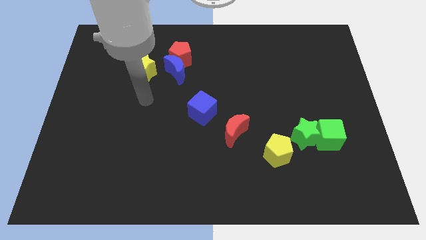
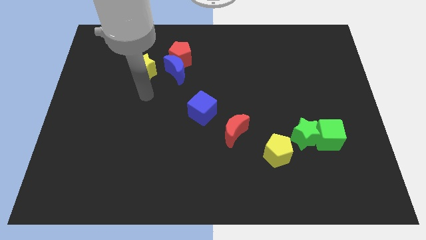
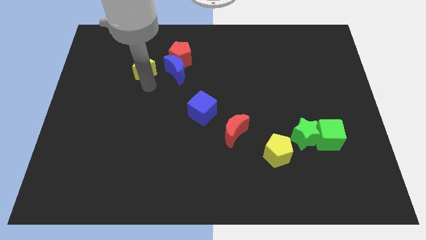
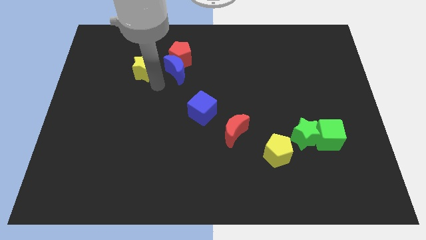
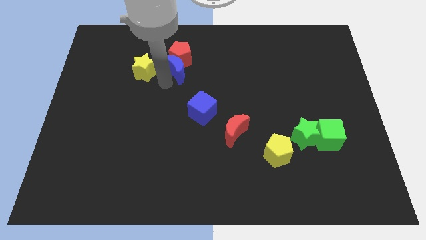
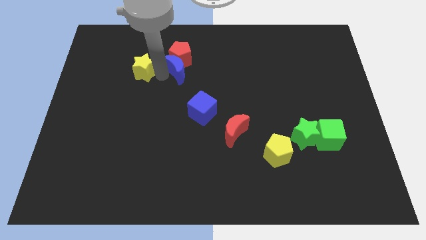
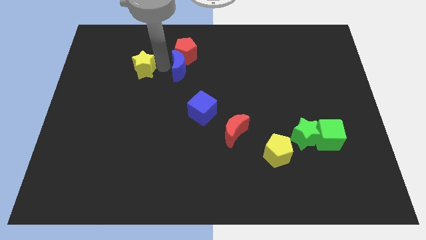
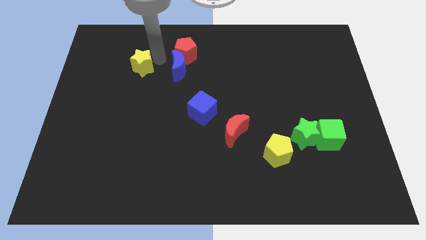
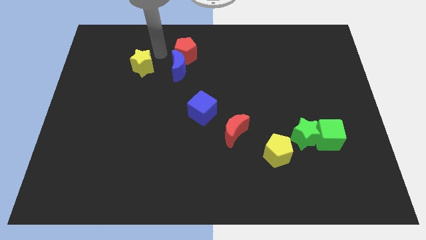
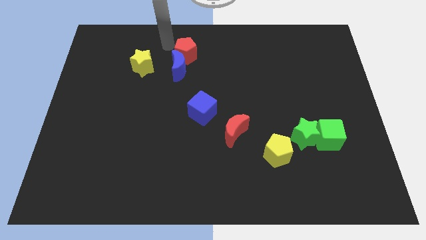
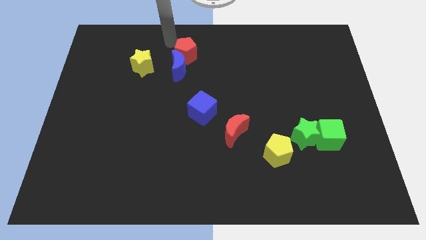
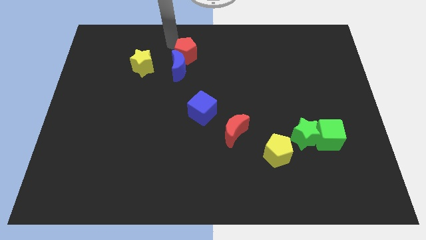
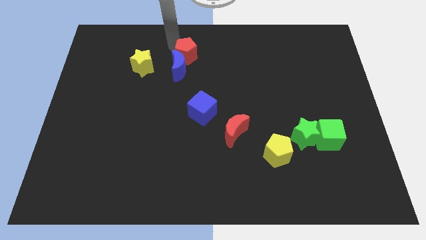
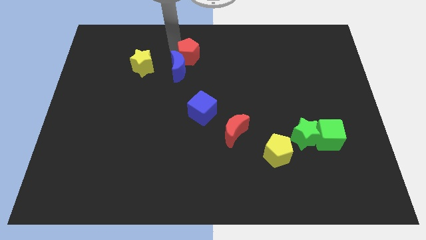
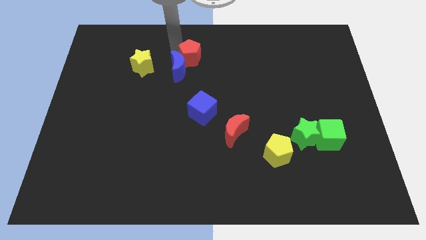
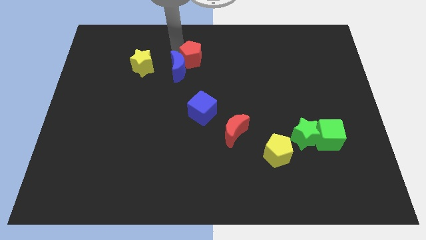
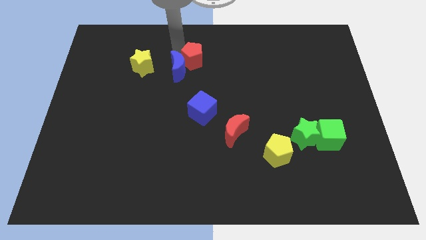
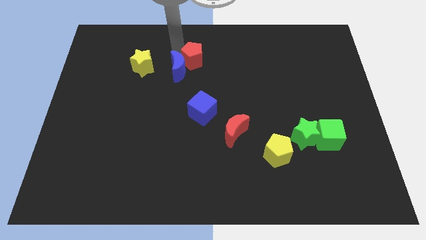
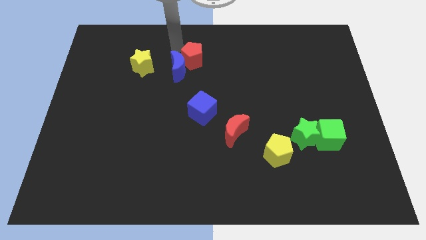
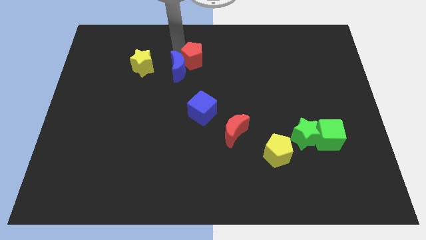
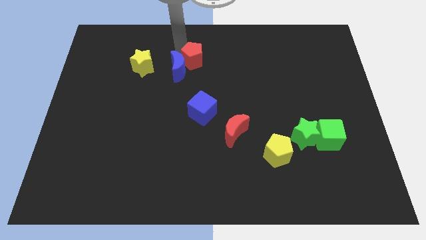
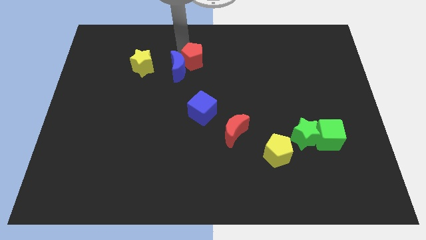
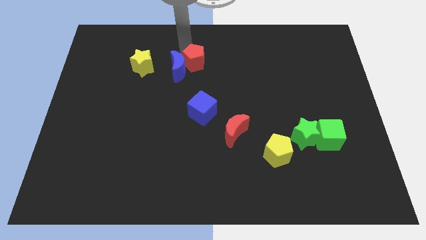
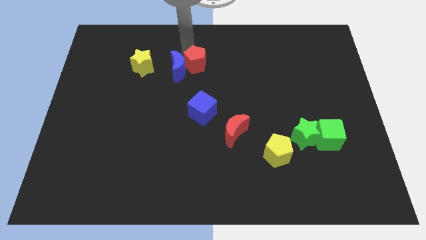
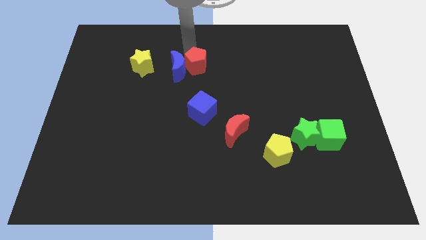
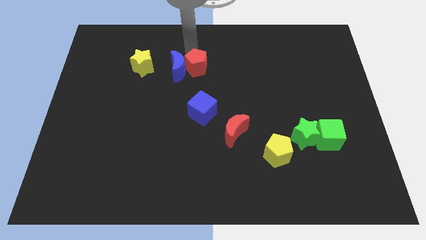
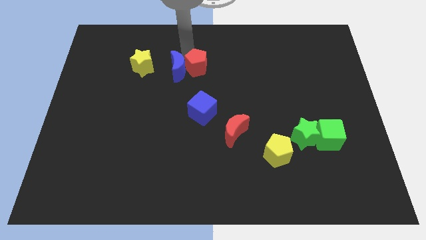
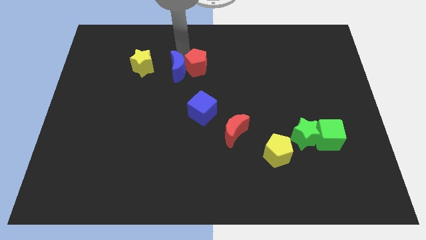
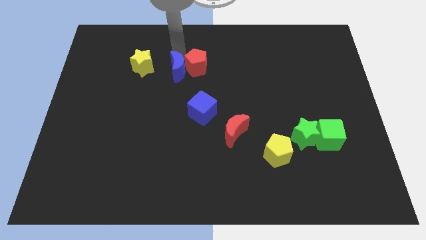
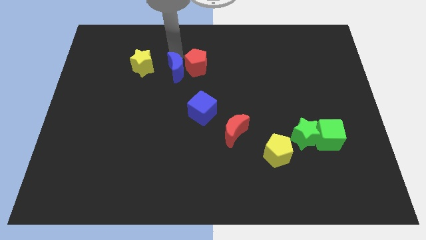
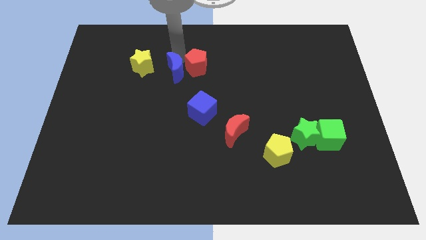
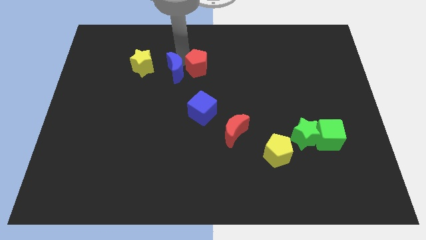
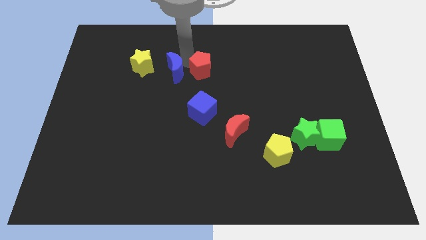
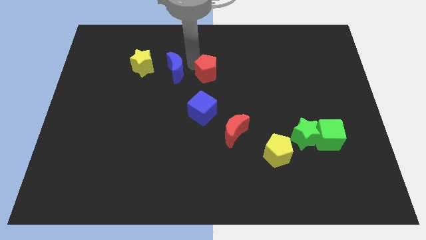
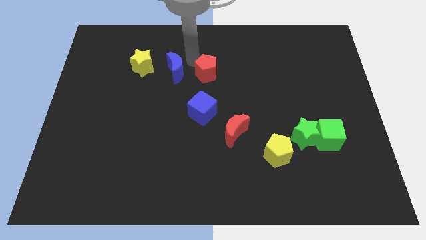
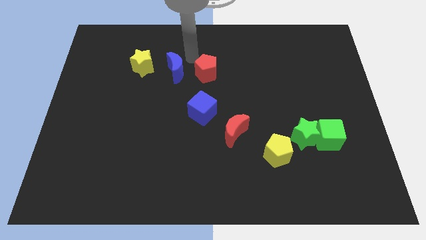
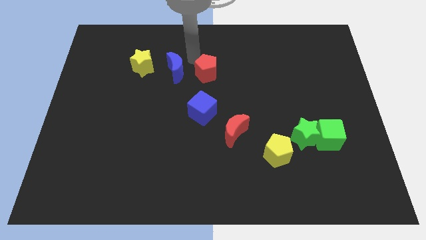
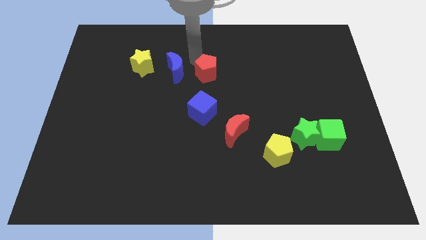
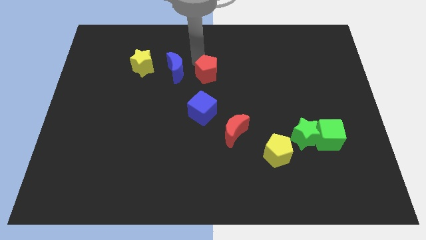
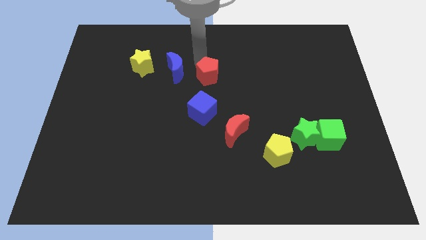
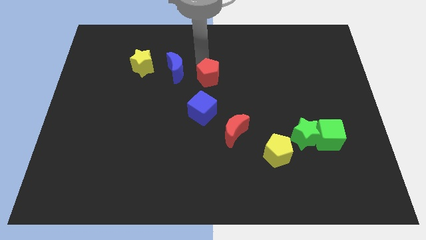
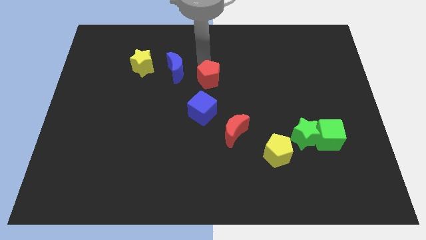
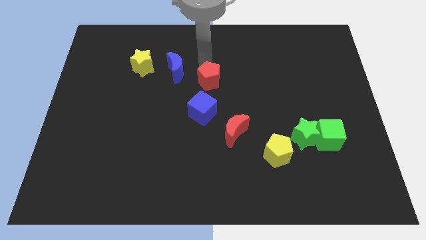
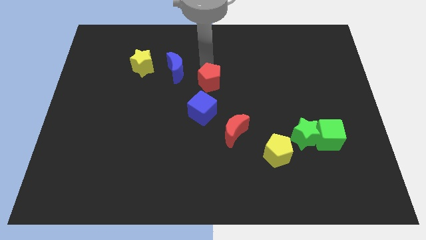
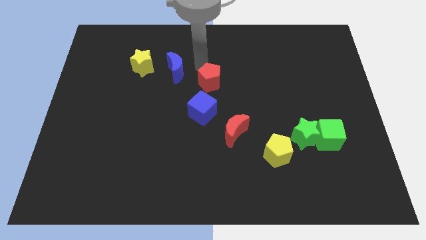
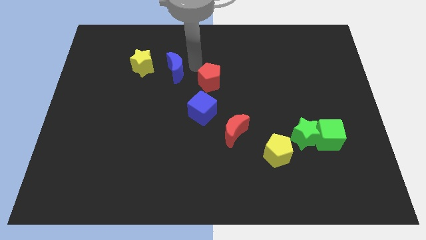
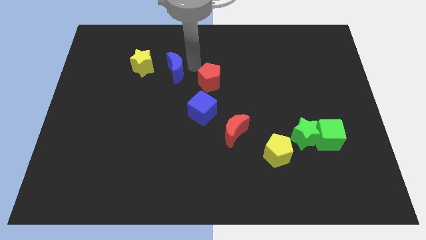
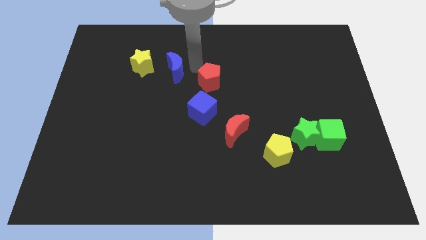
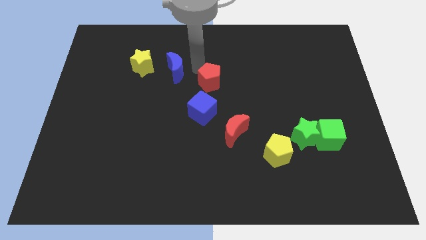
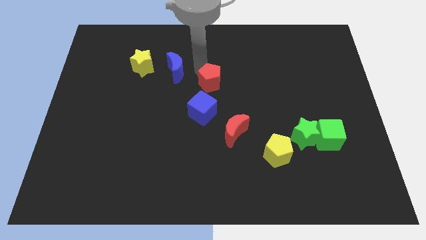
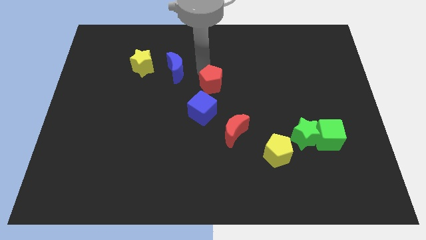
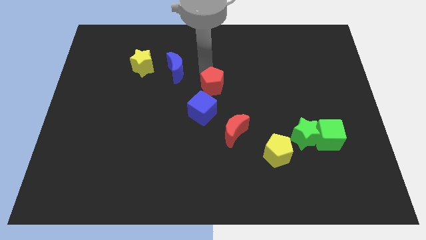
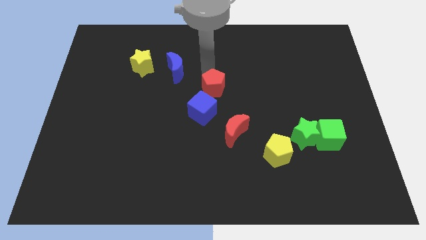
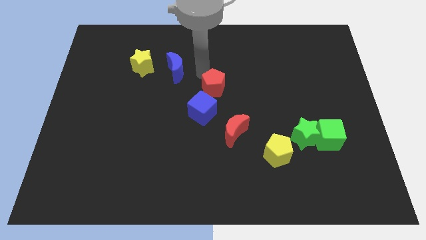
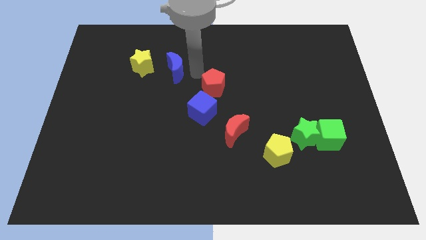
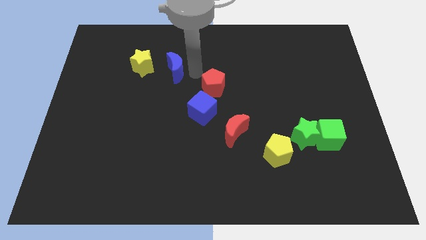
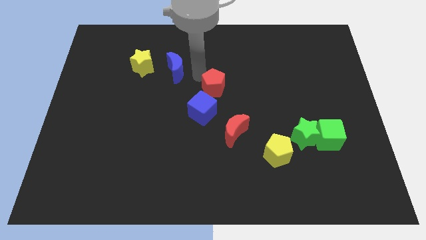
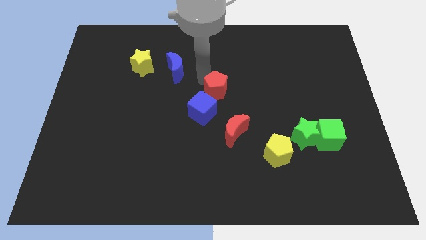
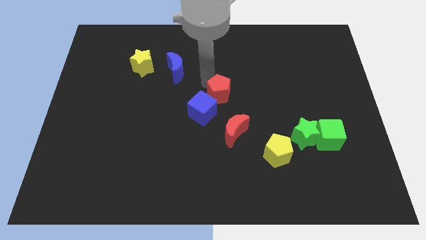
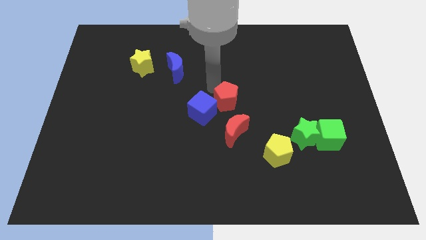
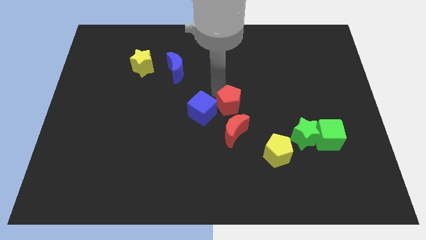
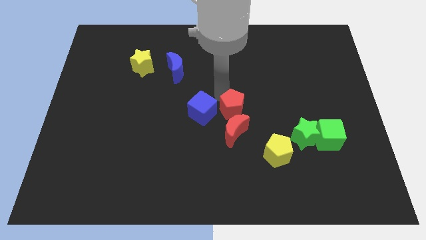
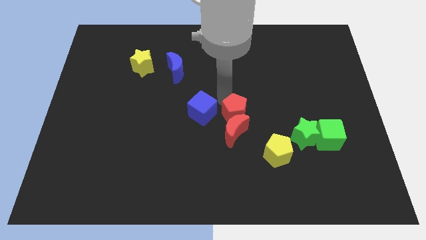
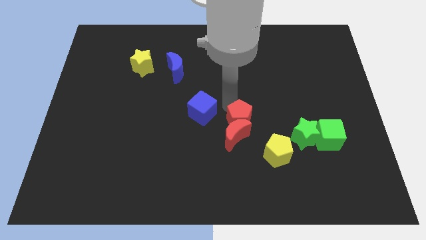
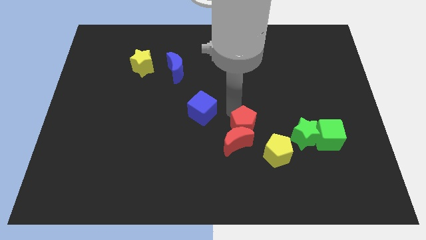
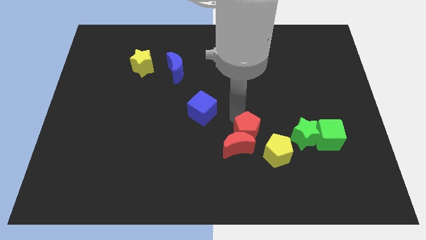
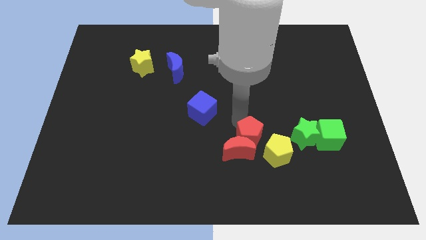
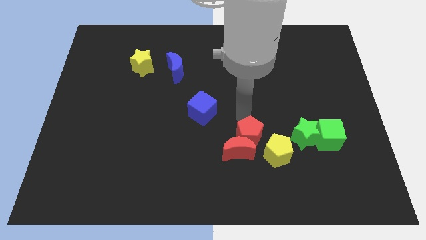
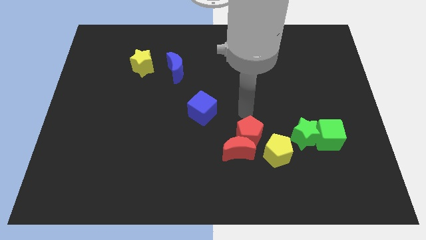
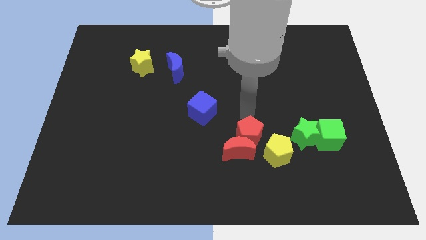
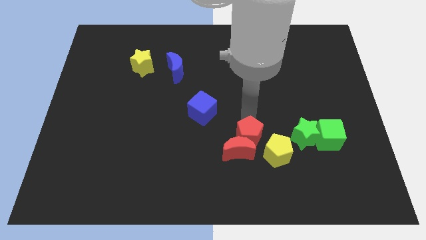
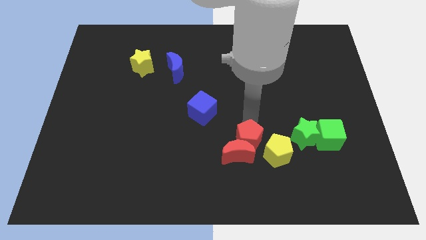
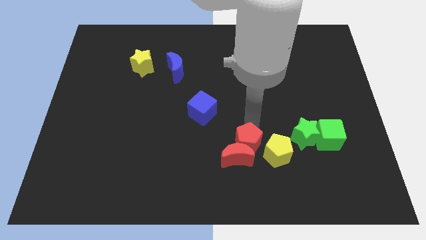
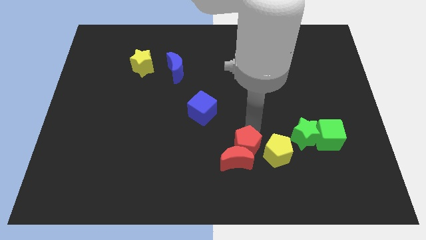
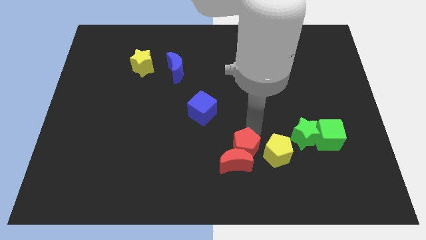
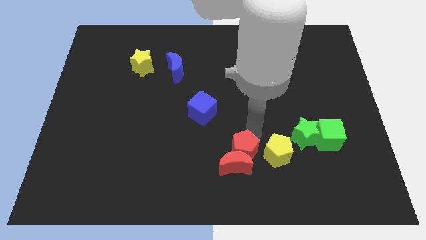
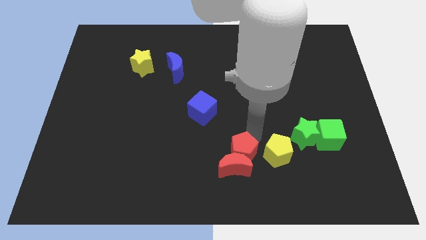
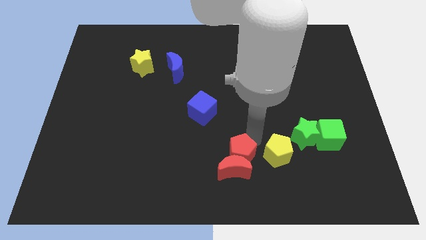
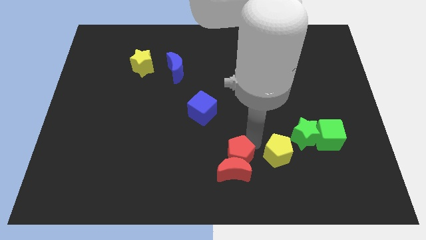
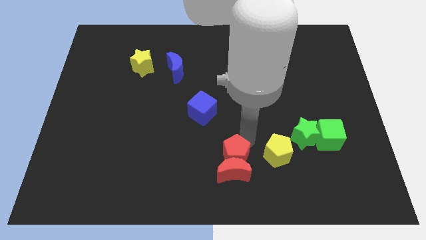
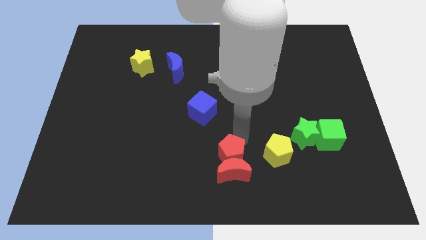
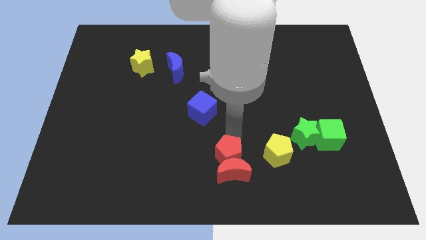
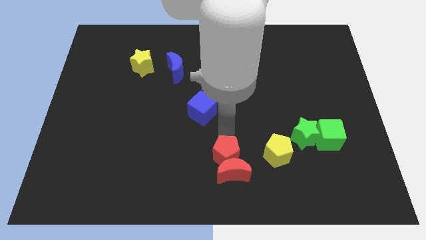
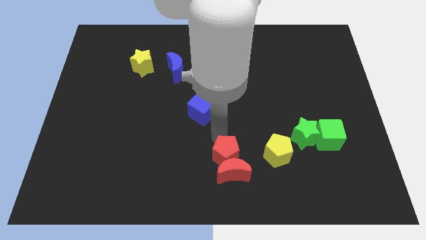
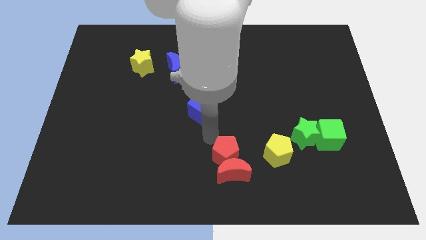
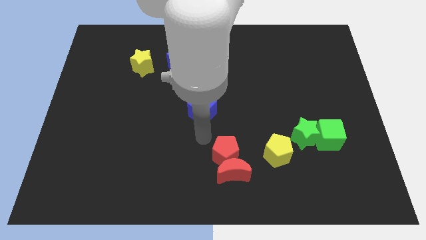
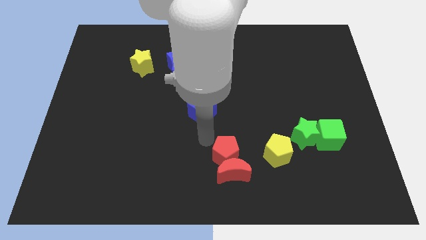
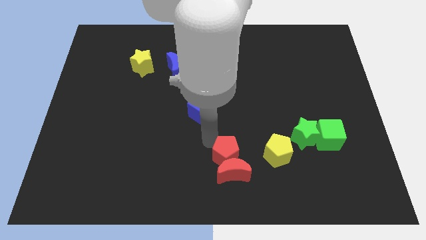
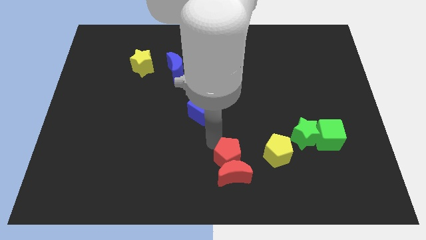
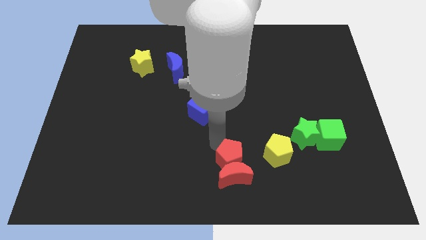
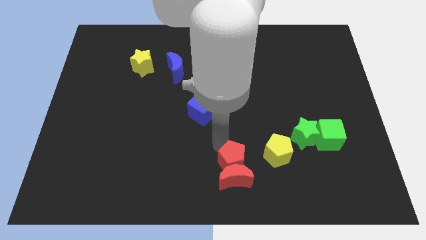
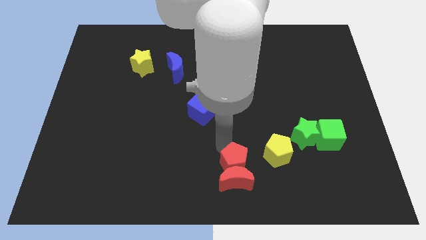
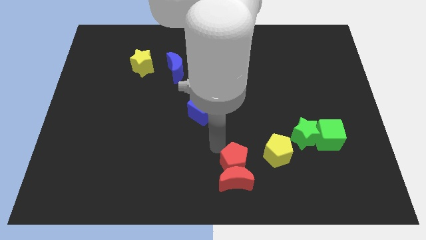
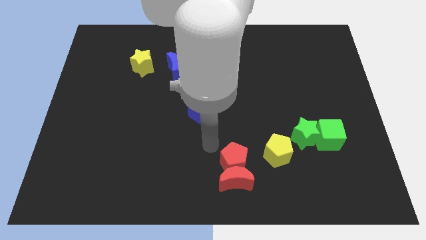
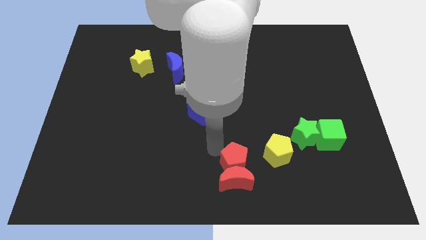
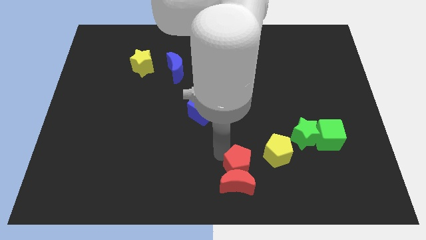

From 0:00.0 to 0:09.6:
push the red pentagon diagonally down and to the left of the yellow pentagon
